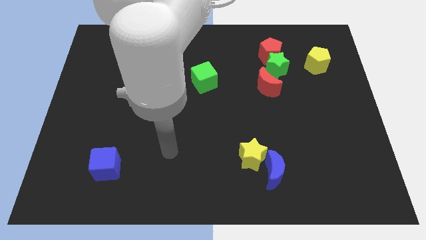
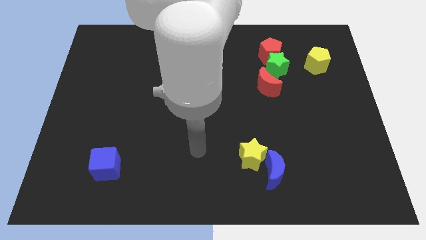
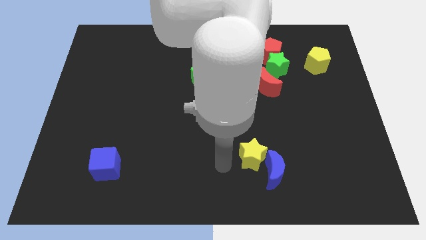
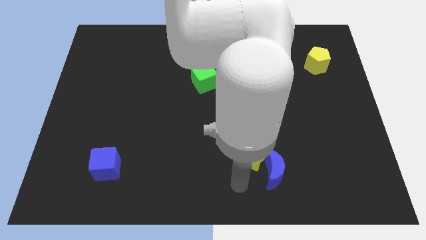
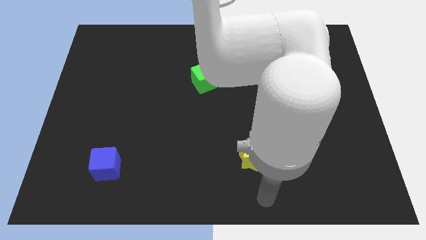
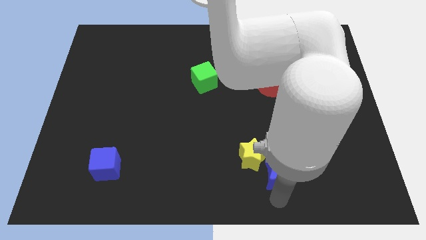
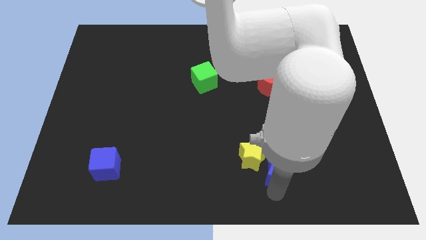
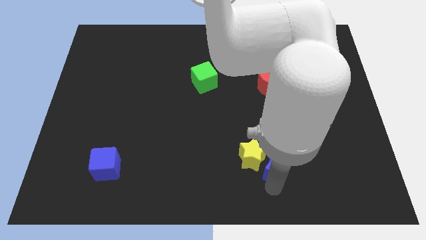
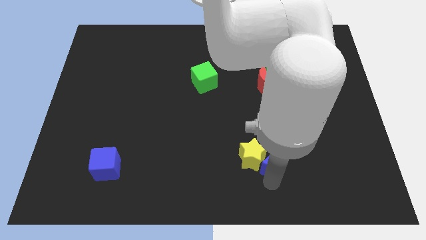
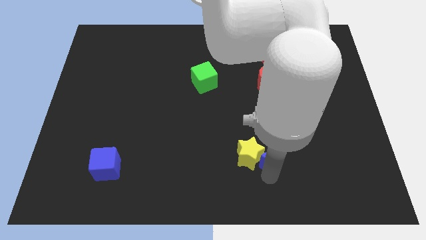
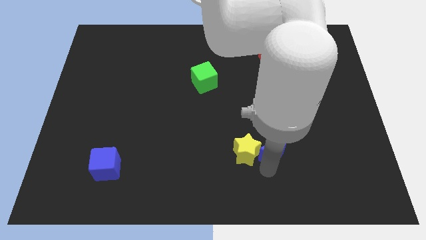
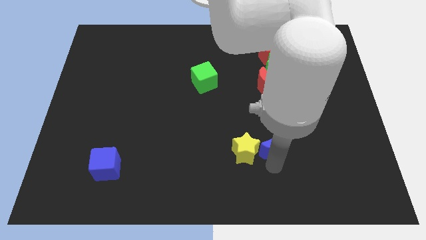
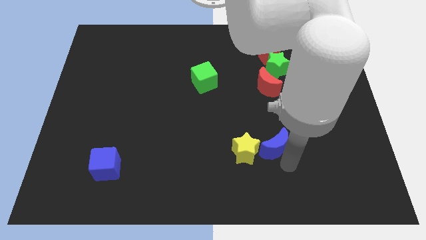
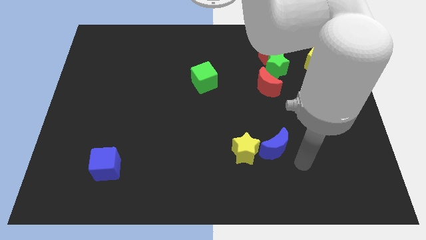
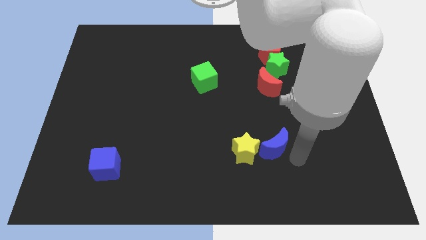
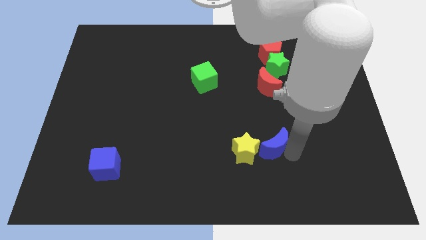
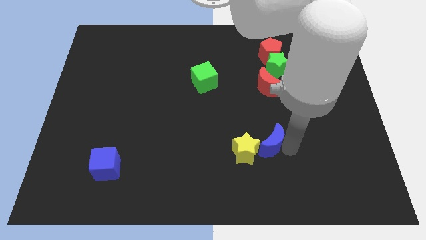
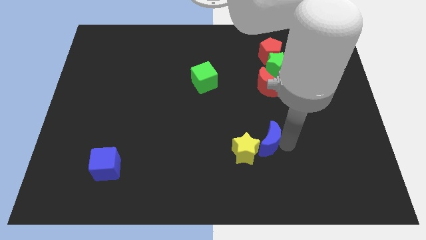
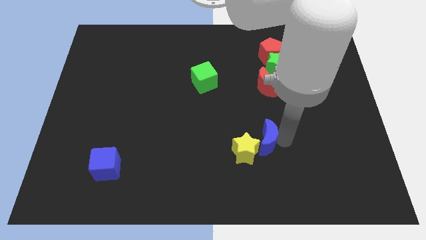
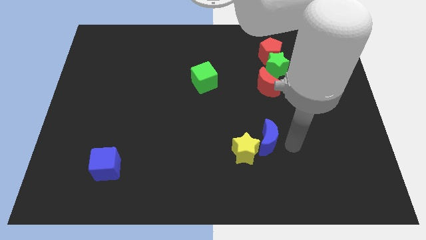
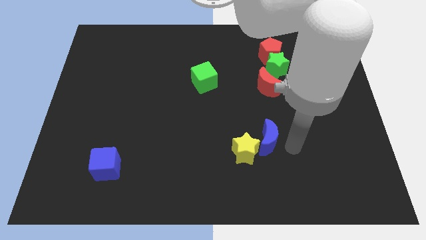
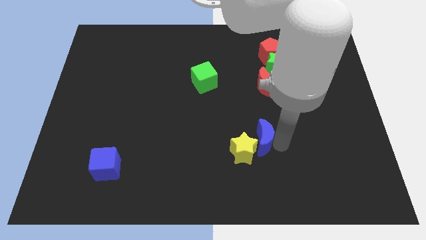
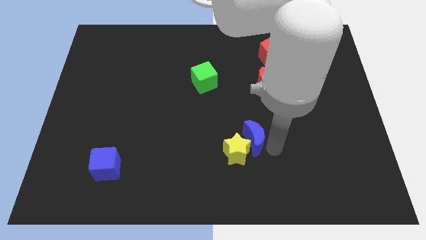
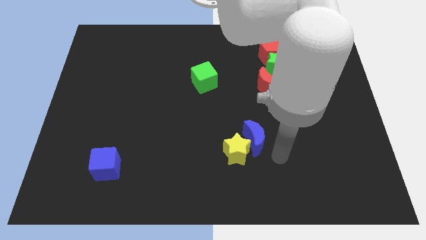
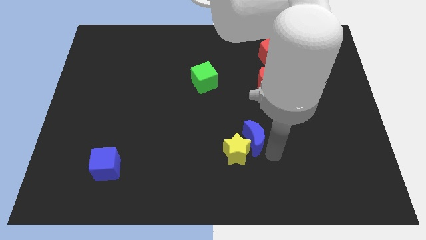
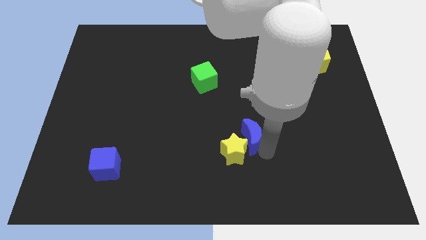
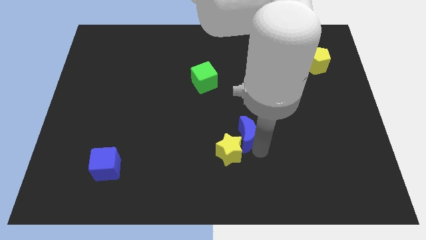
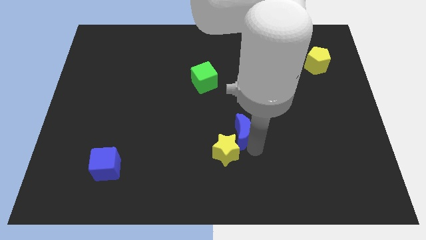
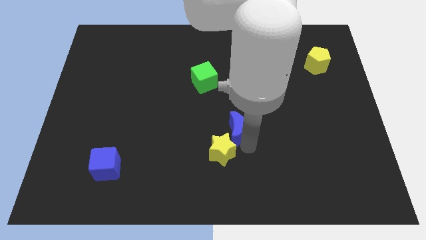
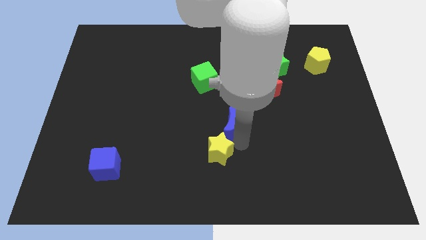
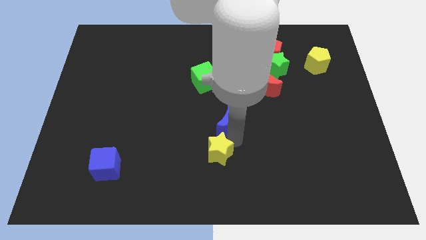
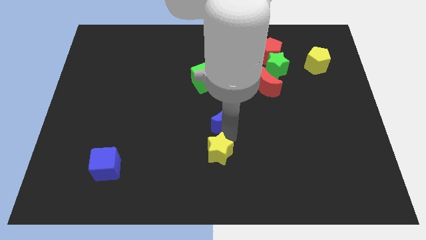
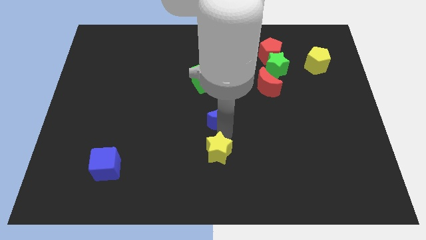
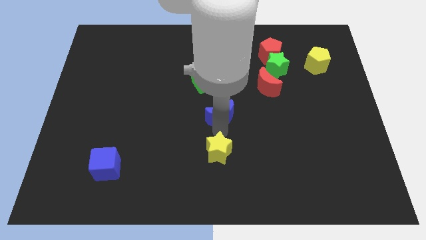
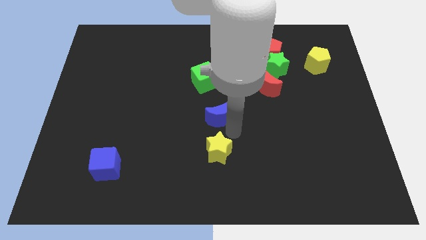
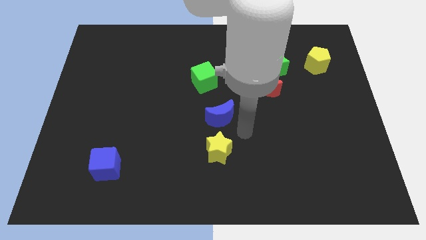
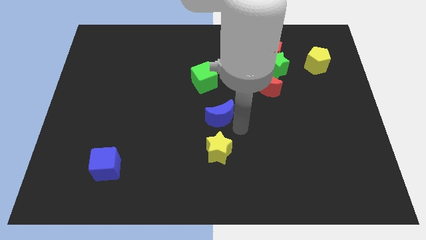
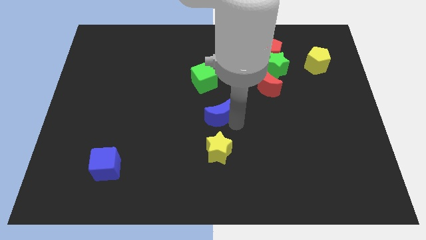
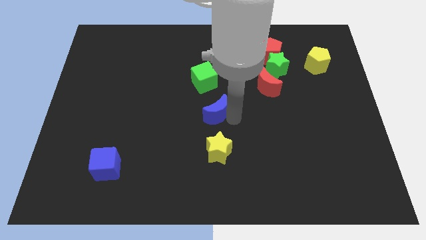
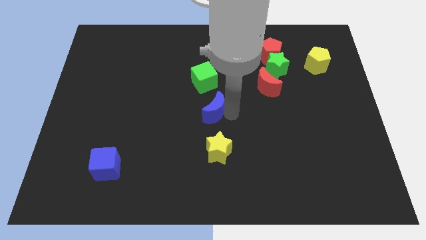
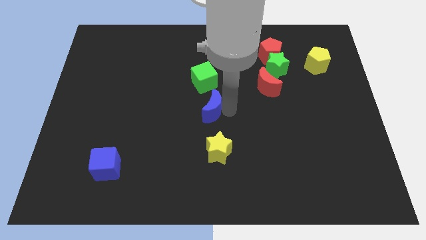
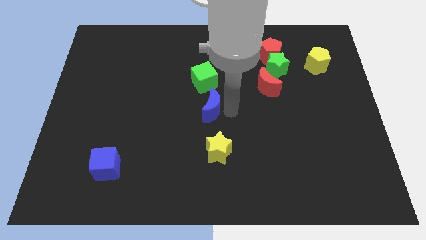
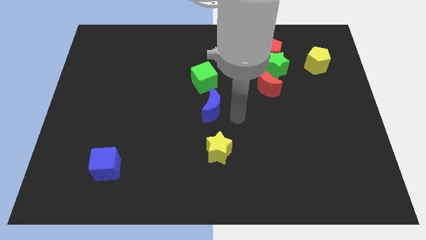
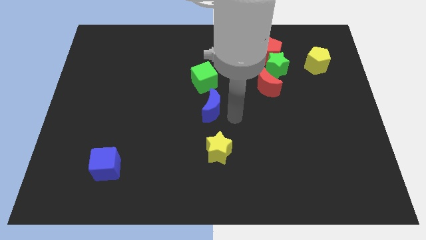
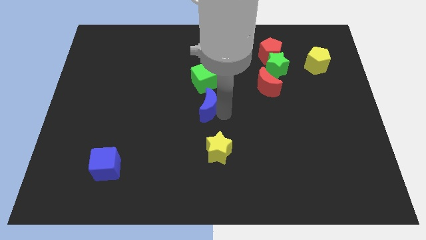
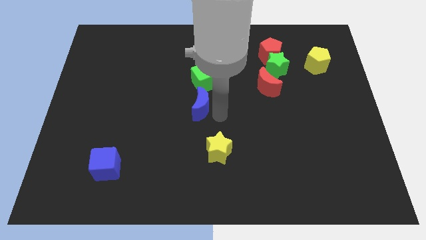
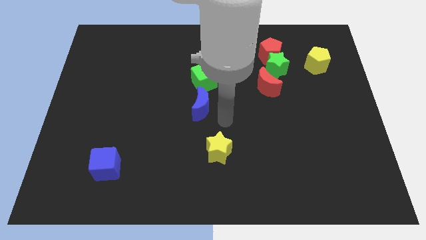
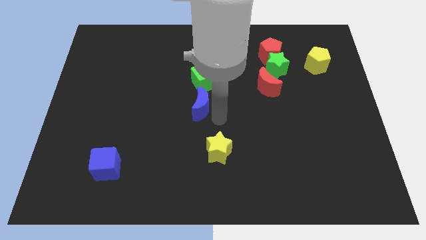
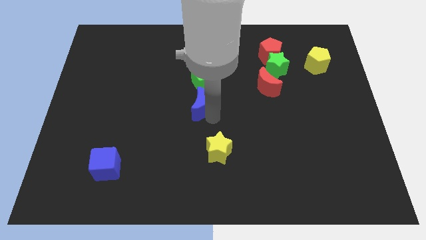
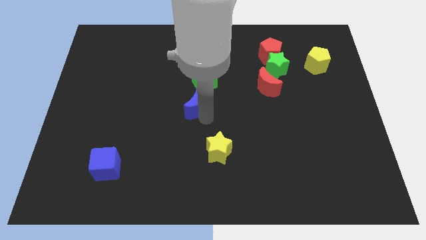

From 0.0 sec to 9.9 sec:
slide the blue moon to the bottom left of the green cube

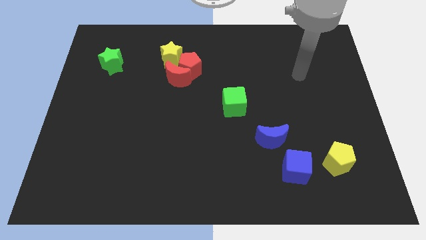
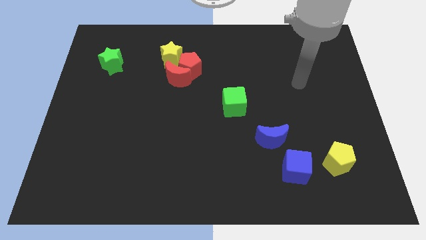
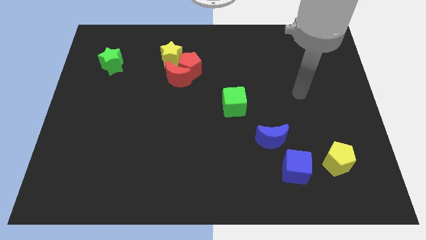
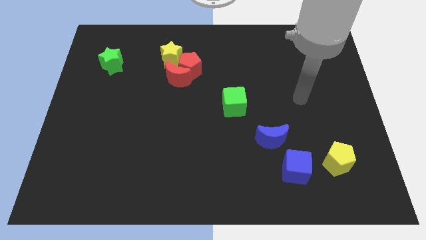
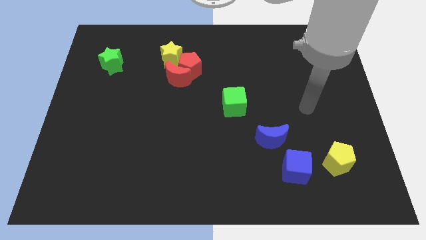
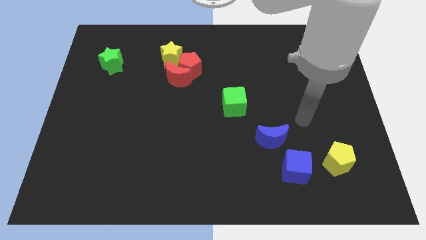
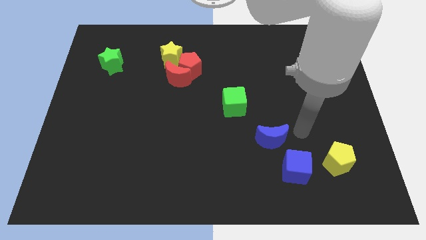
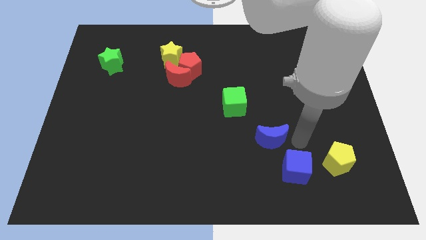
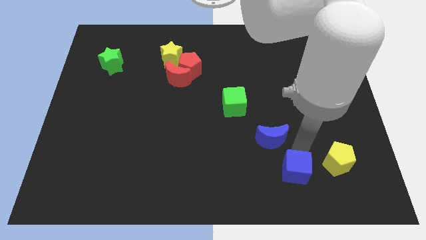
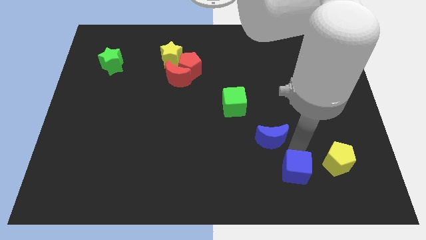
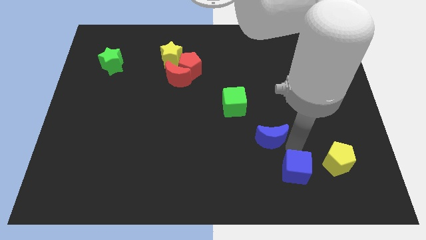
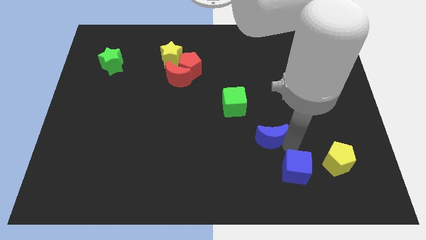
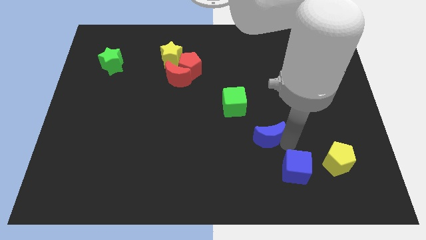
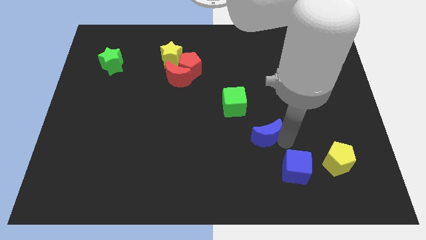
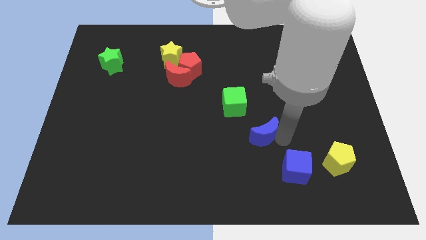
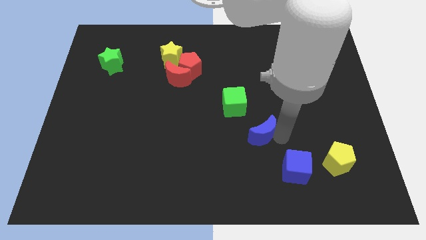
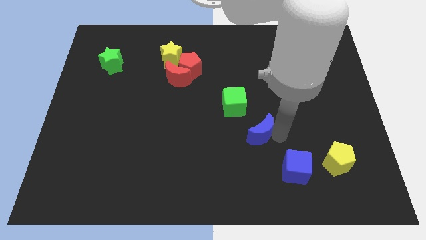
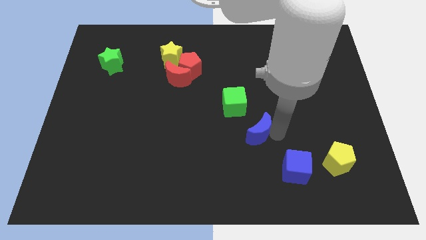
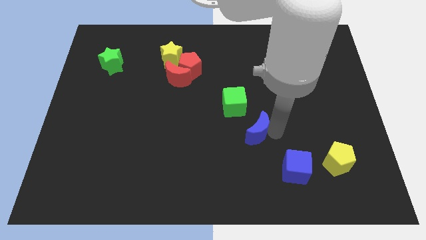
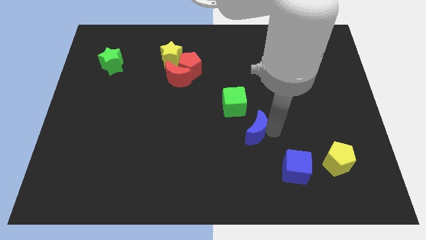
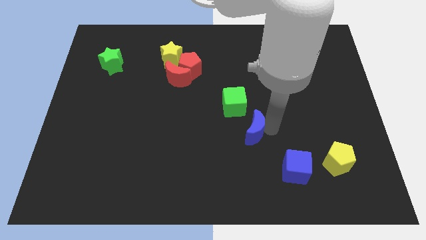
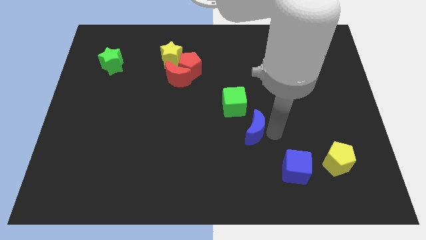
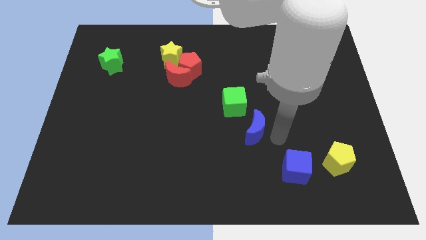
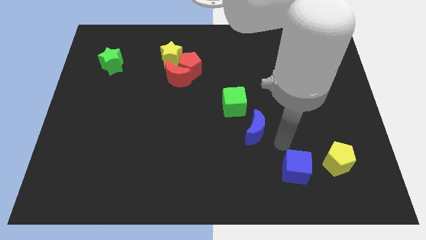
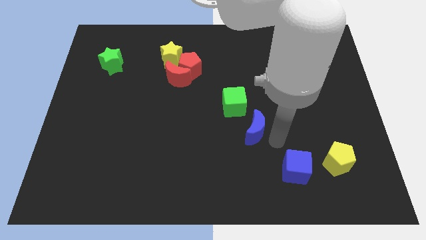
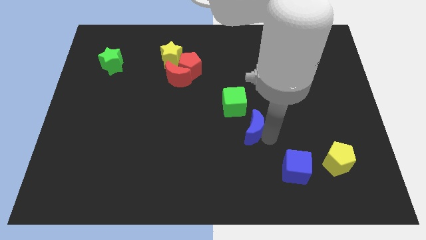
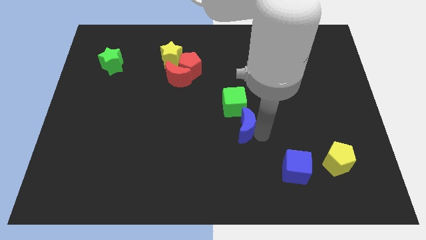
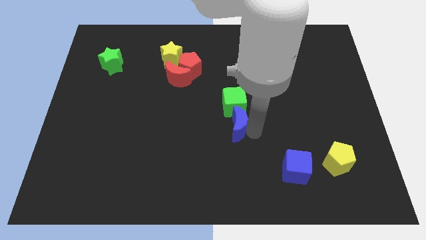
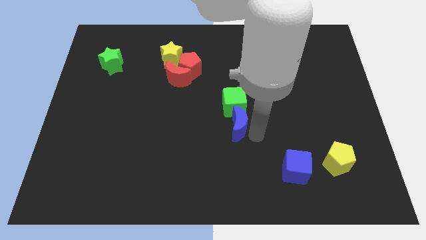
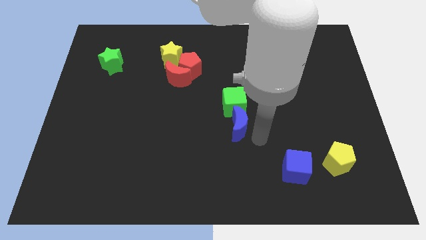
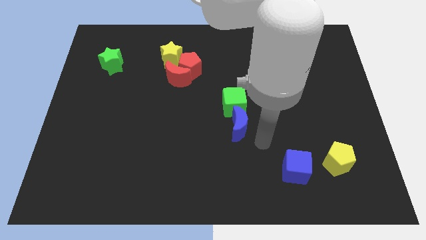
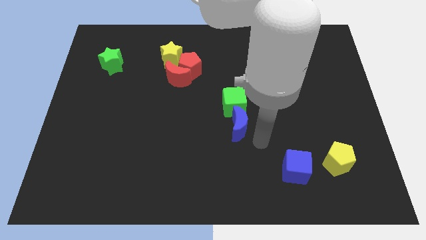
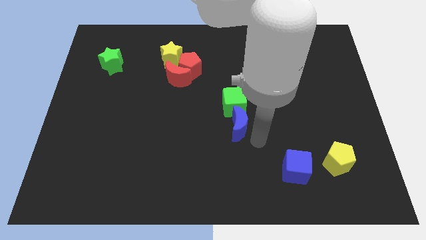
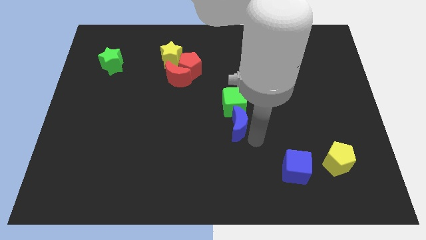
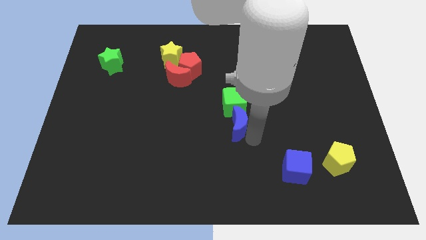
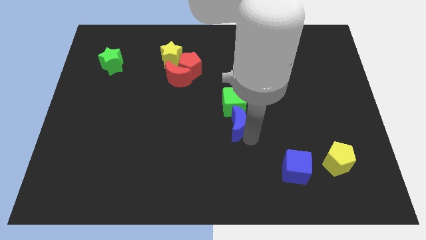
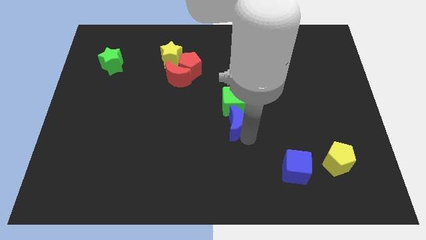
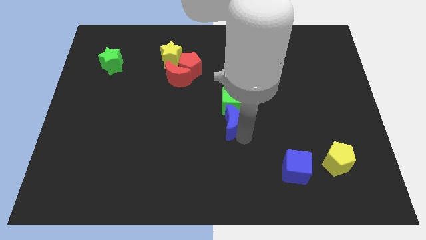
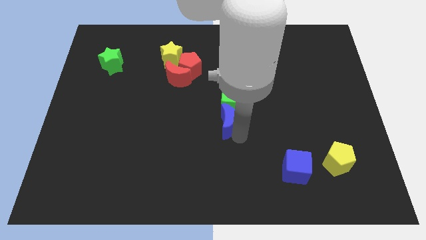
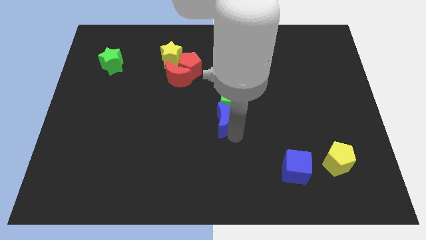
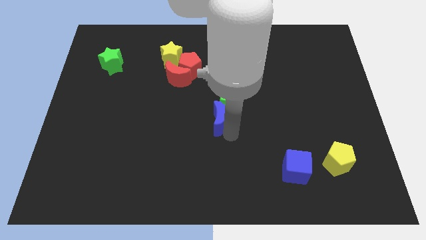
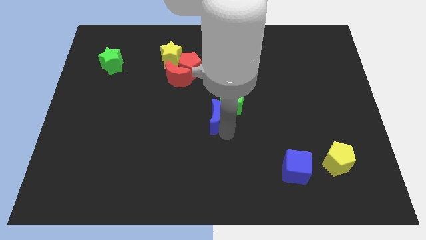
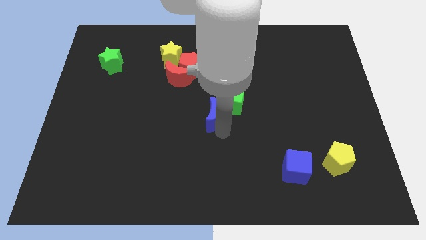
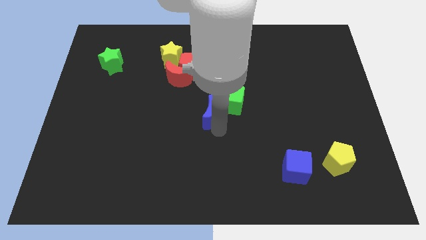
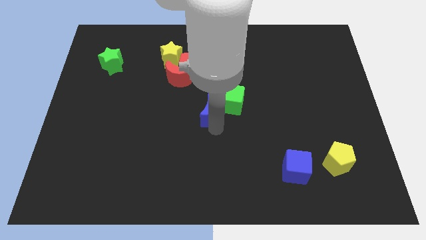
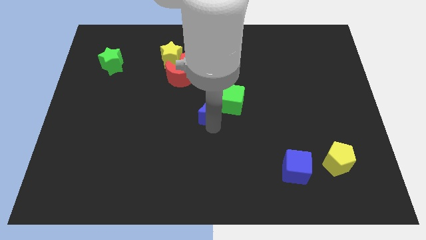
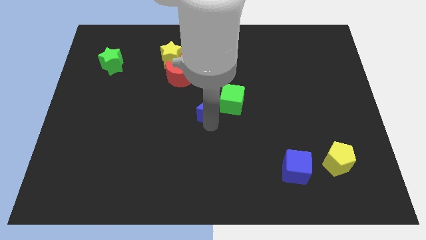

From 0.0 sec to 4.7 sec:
push the blue moon to the bottom right of the red moon
